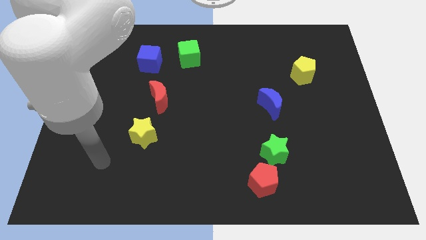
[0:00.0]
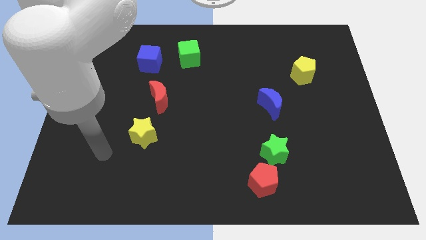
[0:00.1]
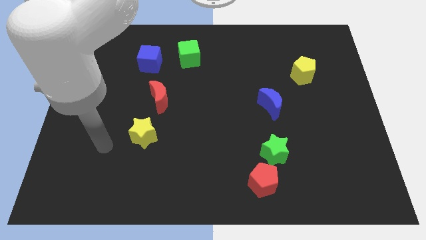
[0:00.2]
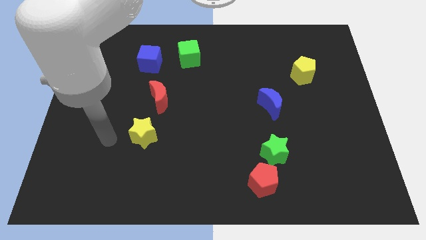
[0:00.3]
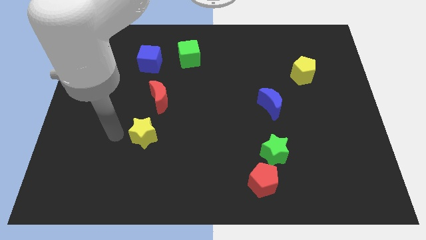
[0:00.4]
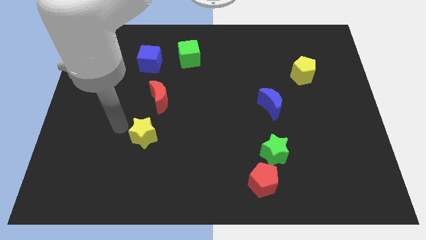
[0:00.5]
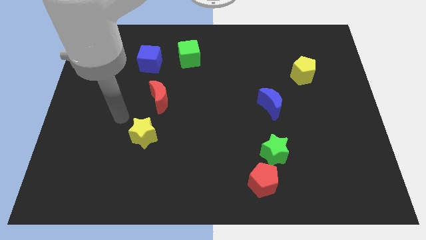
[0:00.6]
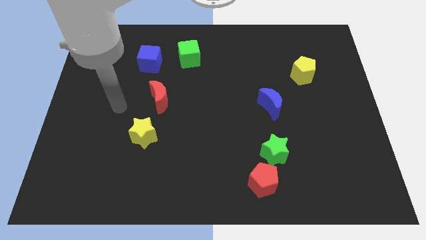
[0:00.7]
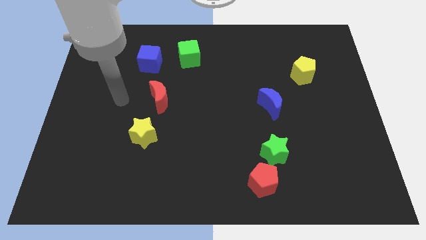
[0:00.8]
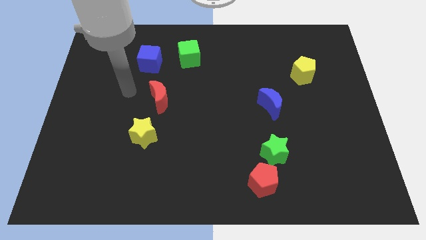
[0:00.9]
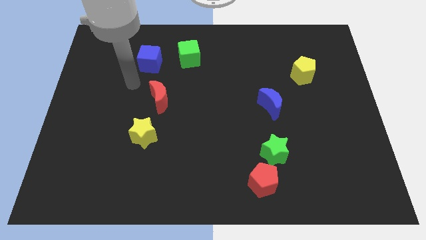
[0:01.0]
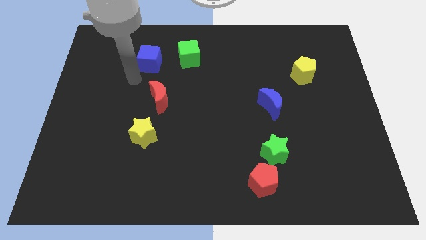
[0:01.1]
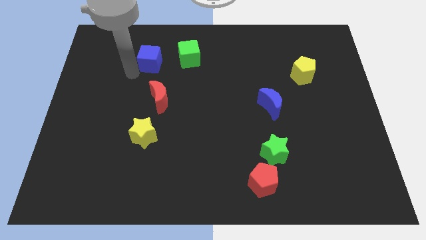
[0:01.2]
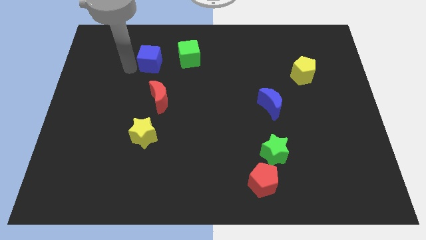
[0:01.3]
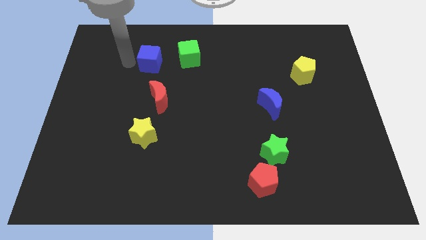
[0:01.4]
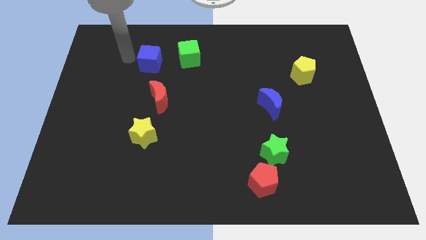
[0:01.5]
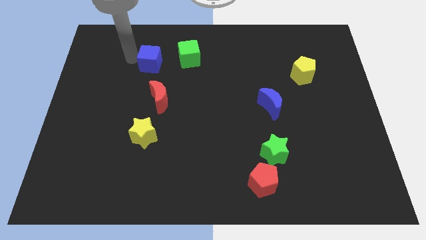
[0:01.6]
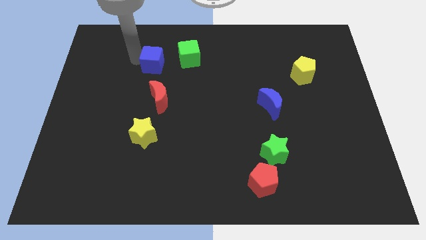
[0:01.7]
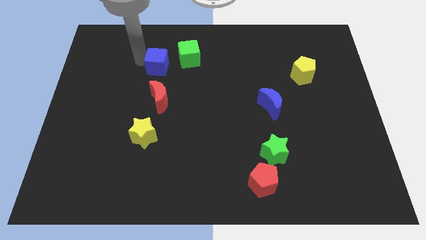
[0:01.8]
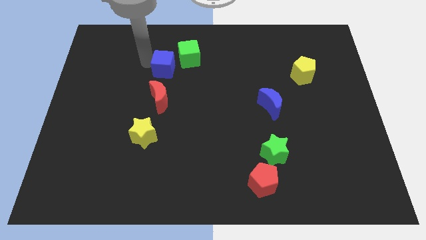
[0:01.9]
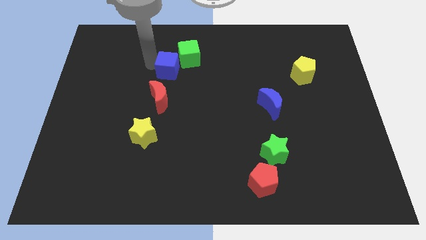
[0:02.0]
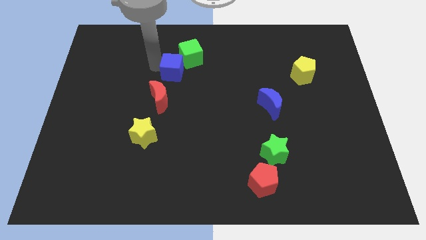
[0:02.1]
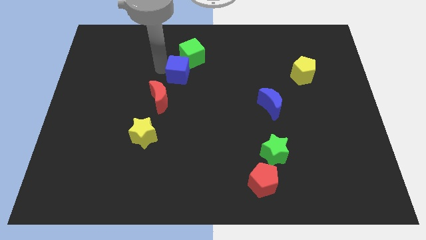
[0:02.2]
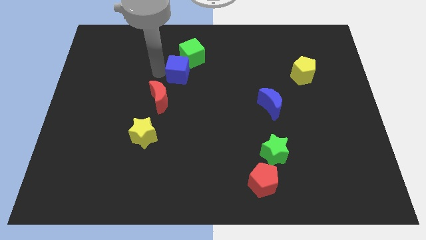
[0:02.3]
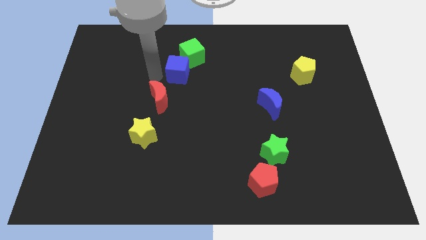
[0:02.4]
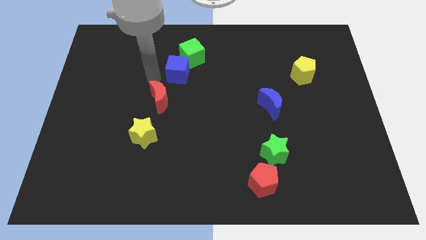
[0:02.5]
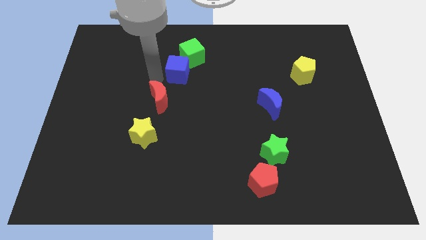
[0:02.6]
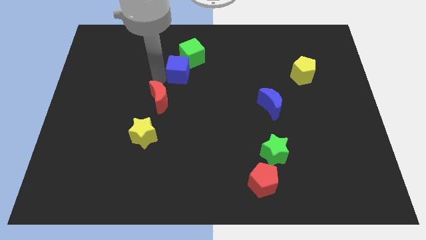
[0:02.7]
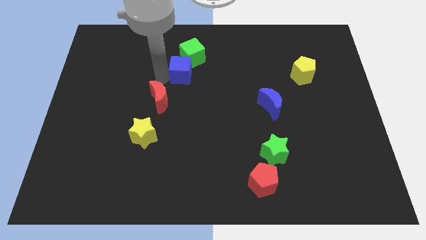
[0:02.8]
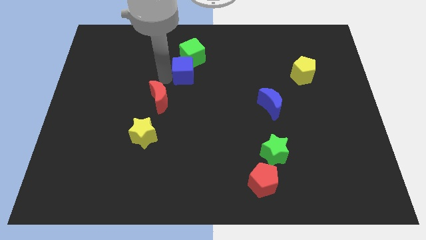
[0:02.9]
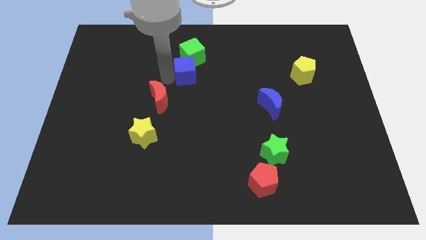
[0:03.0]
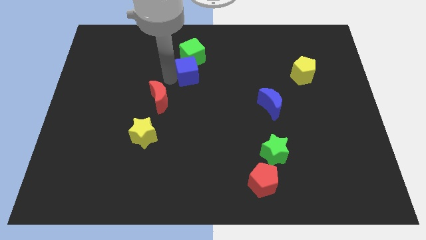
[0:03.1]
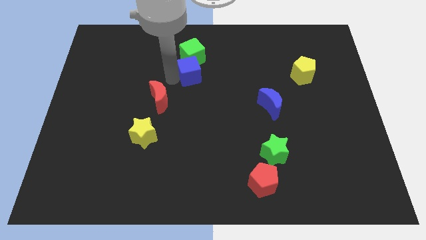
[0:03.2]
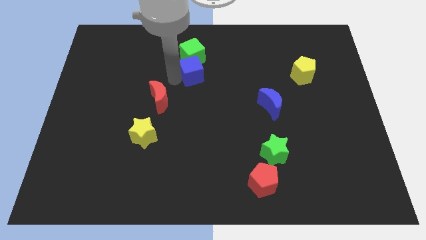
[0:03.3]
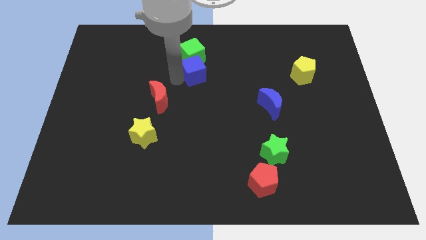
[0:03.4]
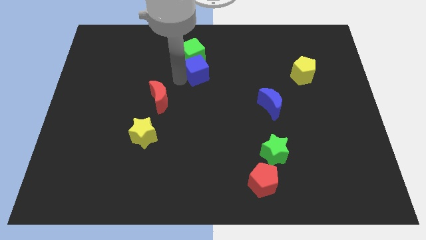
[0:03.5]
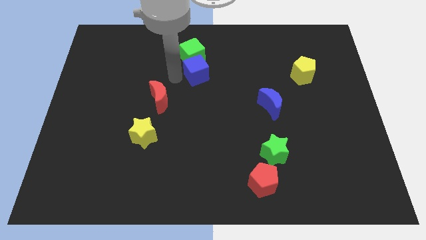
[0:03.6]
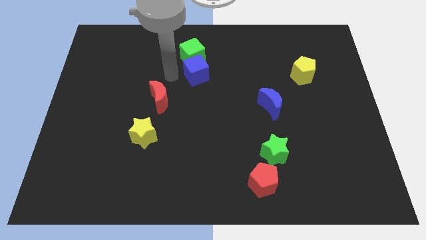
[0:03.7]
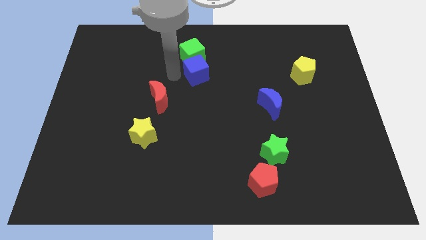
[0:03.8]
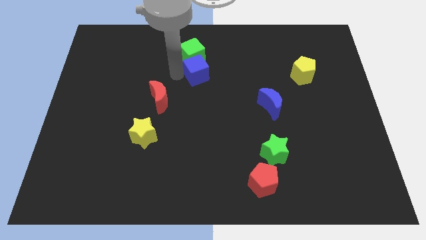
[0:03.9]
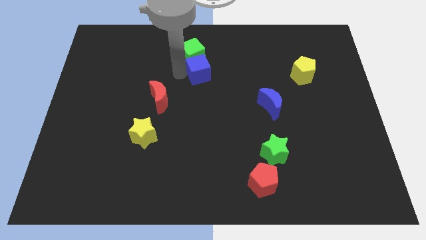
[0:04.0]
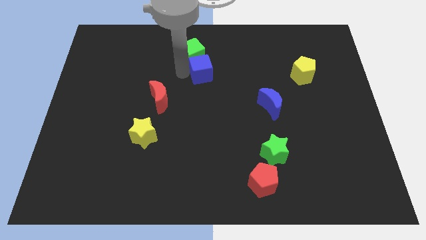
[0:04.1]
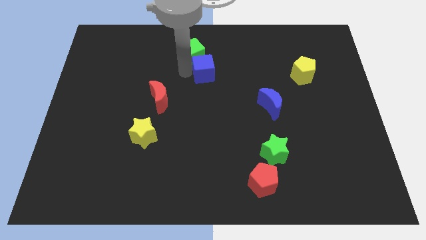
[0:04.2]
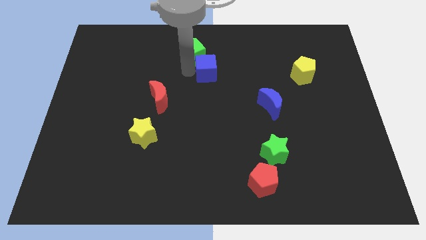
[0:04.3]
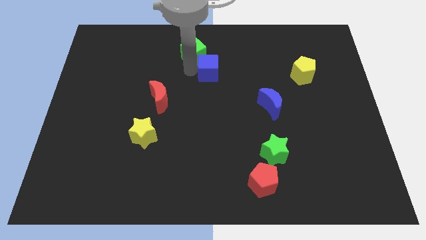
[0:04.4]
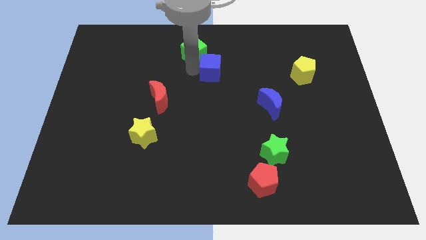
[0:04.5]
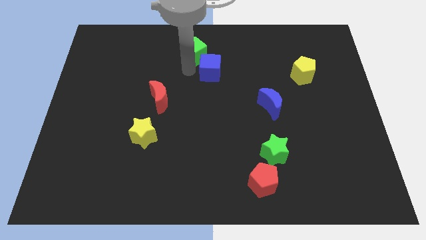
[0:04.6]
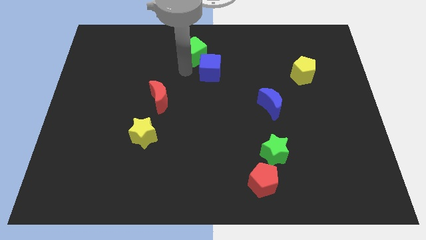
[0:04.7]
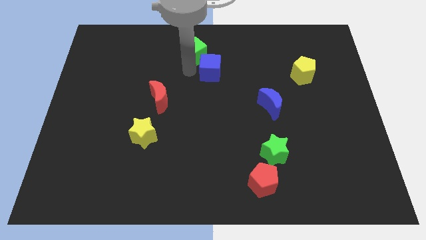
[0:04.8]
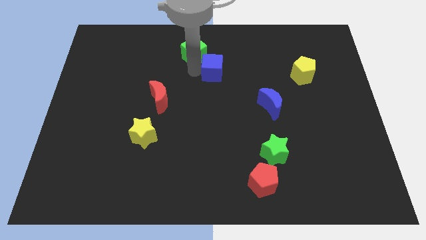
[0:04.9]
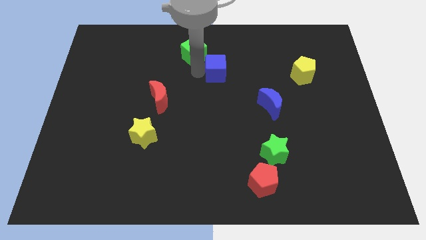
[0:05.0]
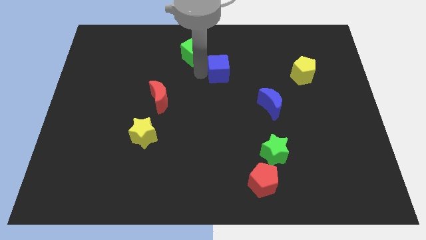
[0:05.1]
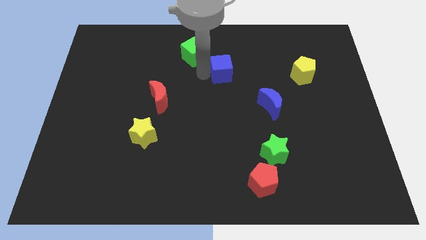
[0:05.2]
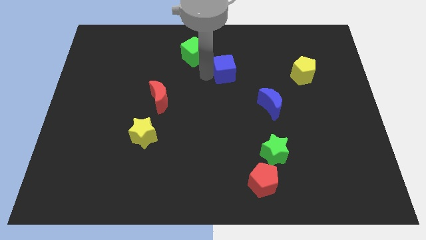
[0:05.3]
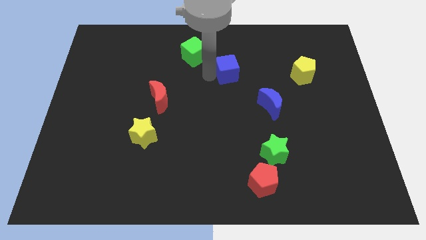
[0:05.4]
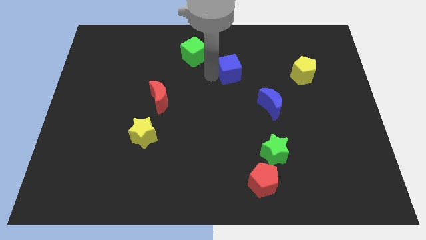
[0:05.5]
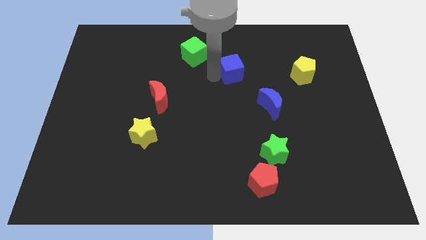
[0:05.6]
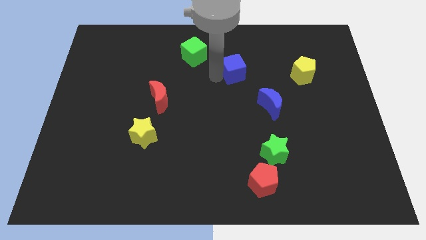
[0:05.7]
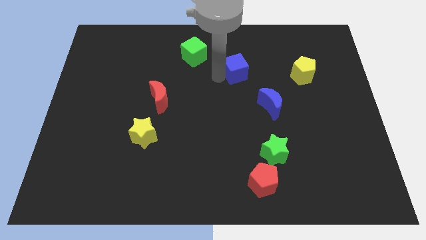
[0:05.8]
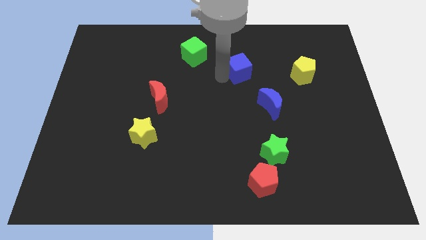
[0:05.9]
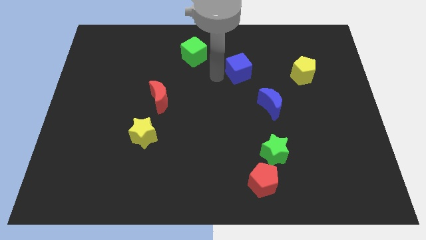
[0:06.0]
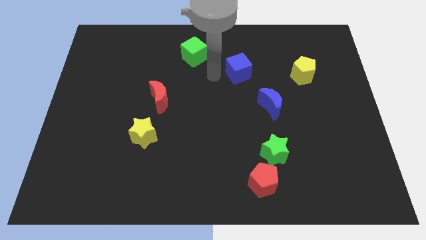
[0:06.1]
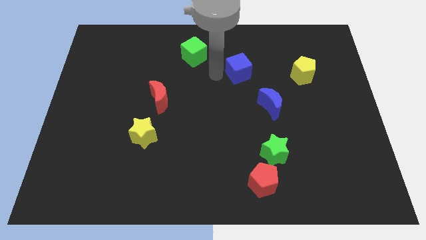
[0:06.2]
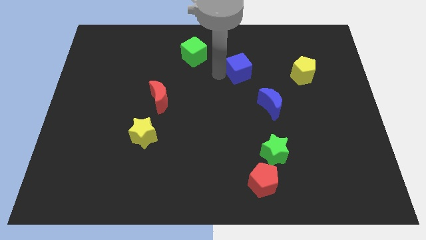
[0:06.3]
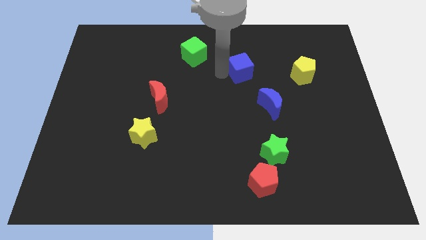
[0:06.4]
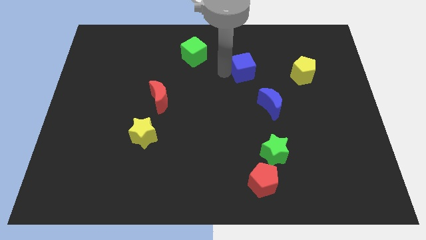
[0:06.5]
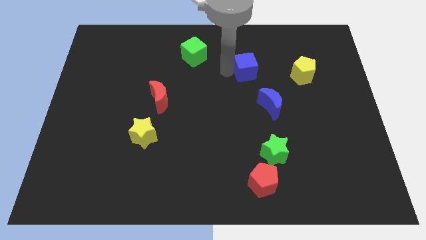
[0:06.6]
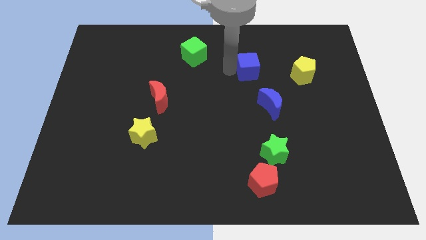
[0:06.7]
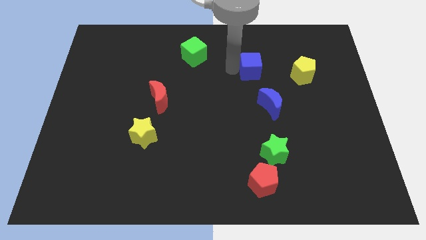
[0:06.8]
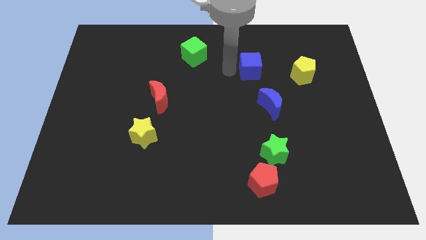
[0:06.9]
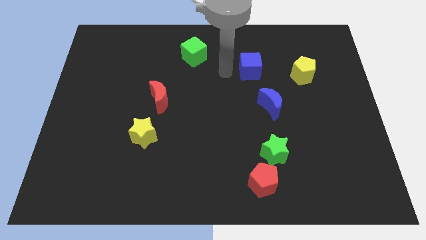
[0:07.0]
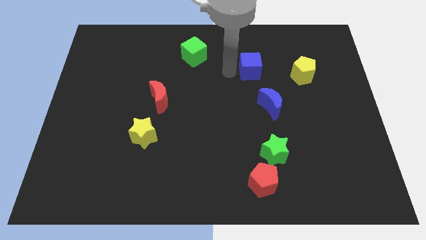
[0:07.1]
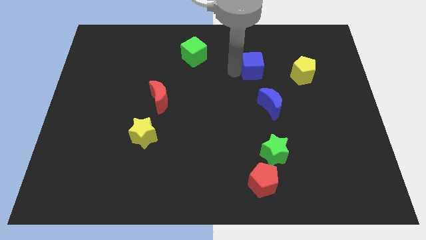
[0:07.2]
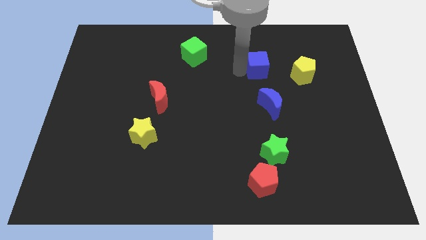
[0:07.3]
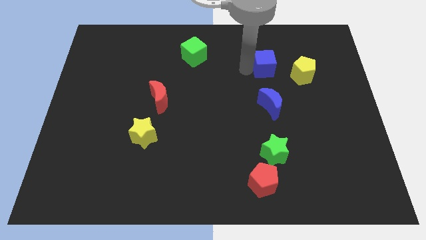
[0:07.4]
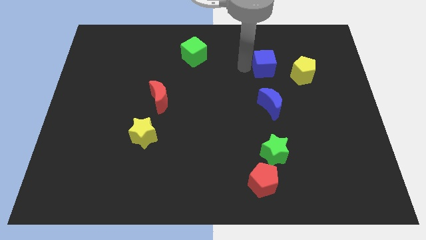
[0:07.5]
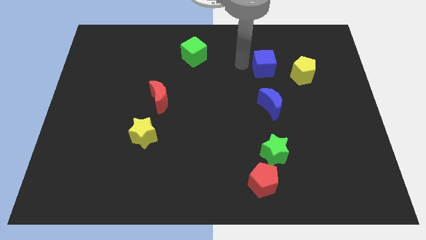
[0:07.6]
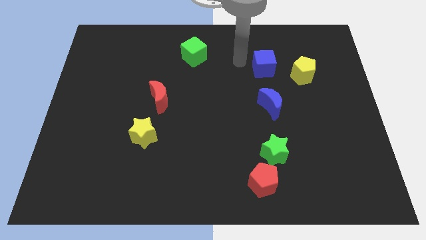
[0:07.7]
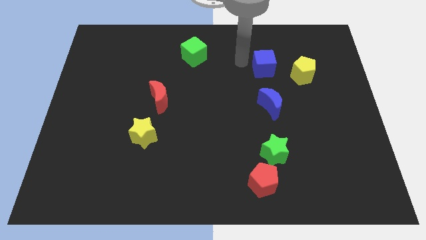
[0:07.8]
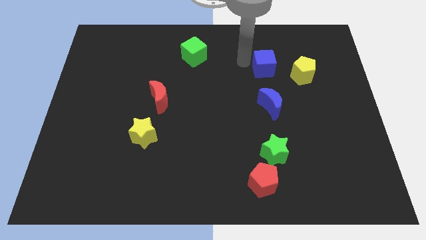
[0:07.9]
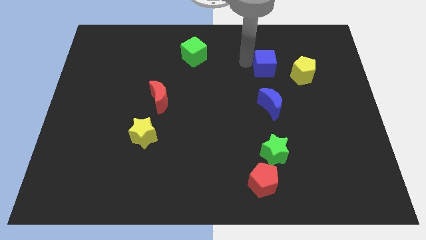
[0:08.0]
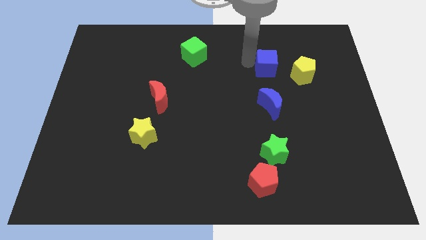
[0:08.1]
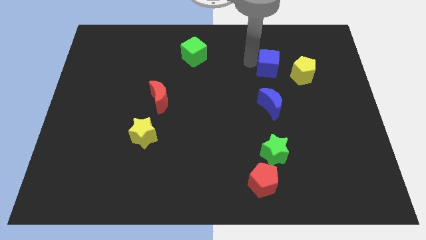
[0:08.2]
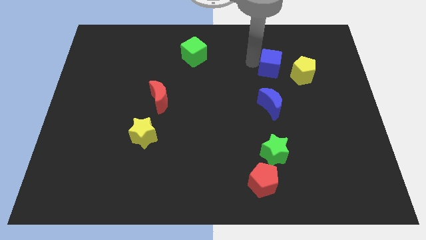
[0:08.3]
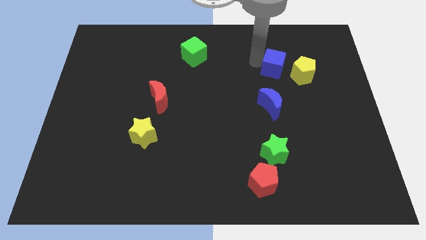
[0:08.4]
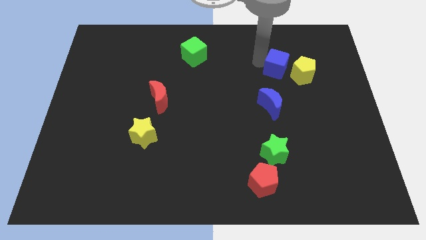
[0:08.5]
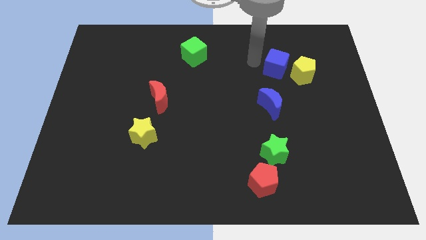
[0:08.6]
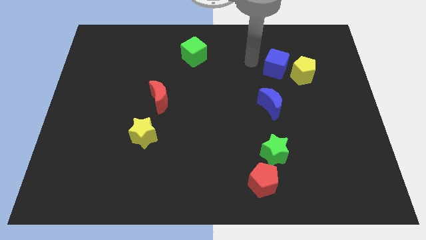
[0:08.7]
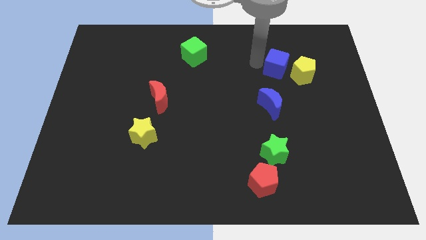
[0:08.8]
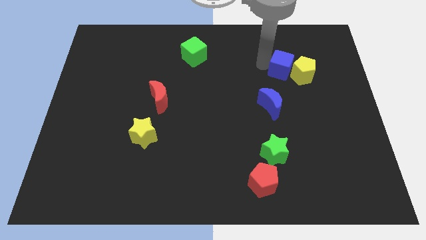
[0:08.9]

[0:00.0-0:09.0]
push the blue cube close to the yellow pentagon
